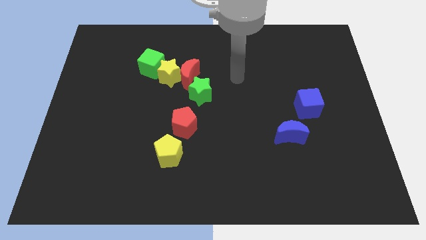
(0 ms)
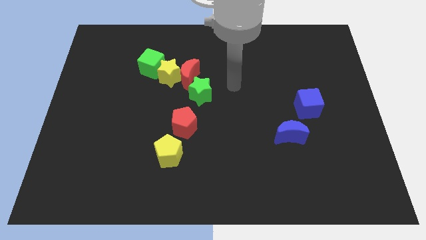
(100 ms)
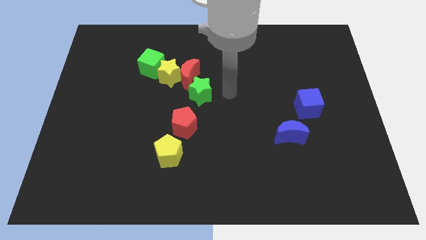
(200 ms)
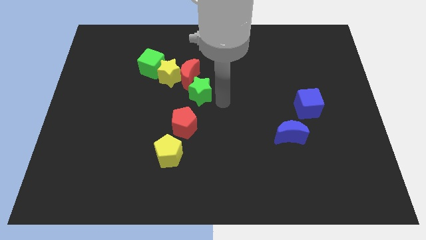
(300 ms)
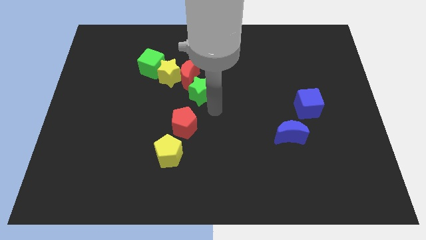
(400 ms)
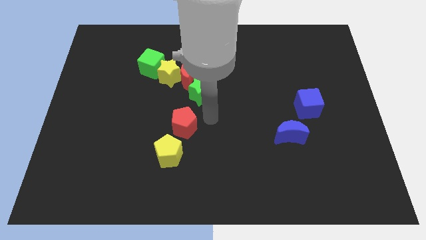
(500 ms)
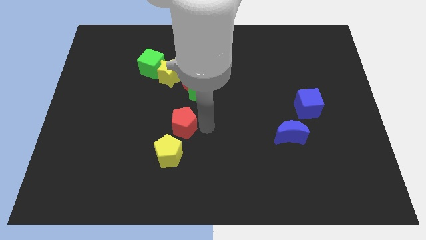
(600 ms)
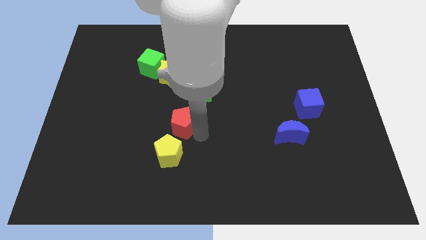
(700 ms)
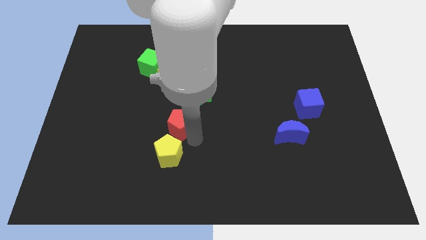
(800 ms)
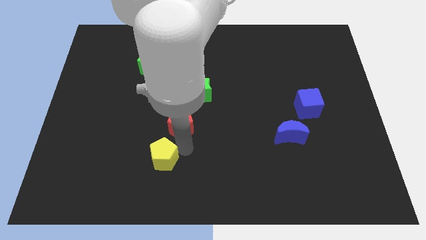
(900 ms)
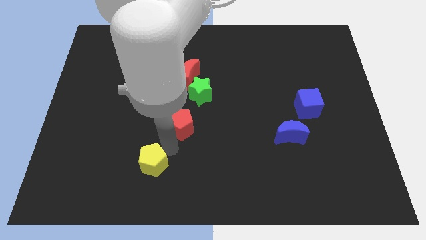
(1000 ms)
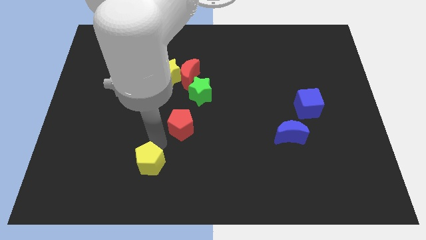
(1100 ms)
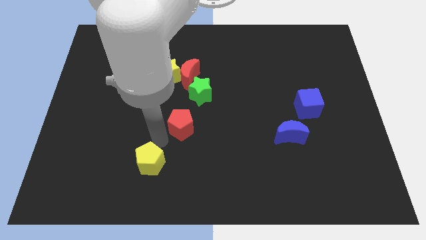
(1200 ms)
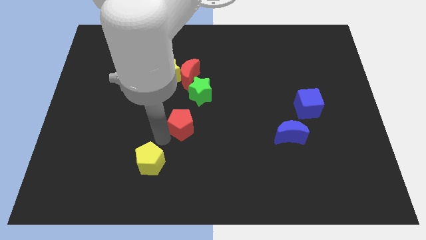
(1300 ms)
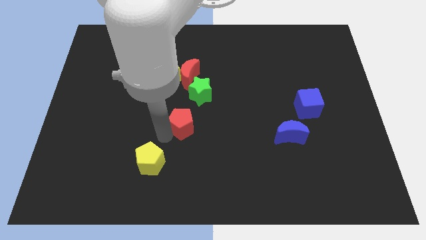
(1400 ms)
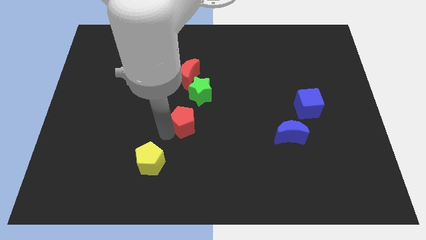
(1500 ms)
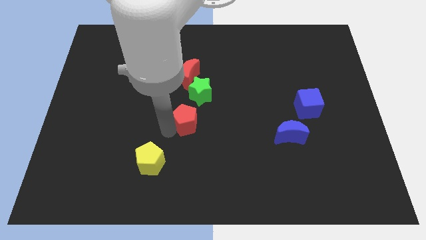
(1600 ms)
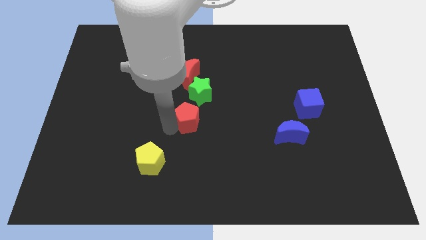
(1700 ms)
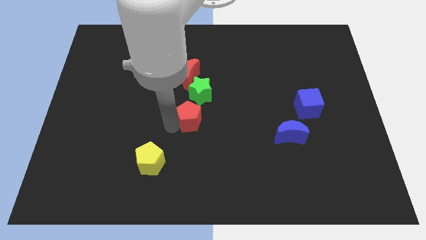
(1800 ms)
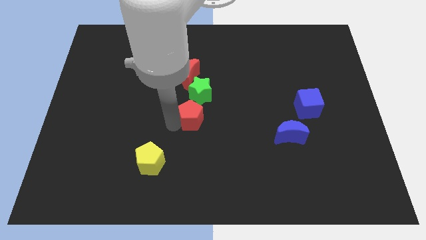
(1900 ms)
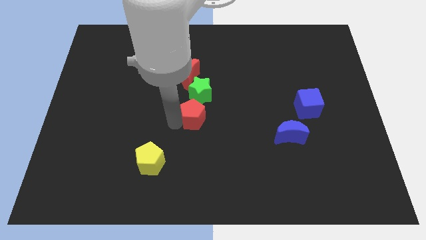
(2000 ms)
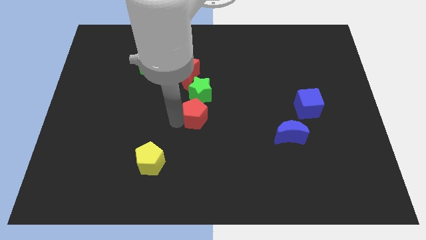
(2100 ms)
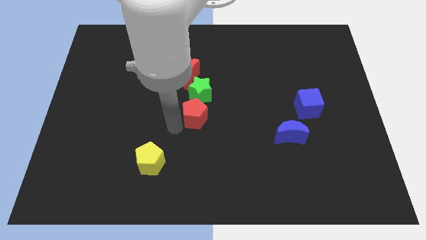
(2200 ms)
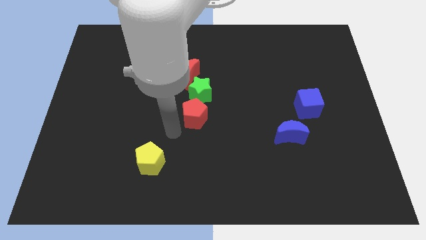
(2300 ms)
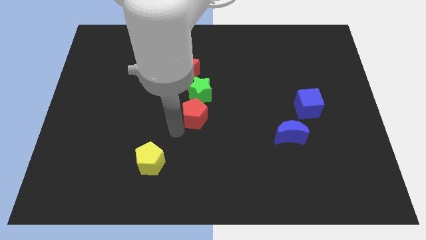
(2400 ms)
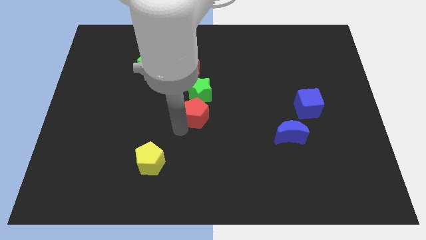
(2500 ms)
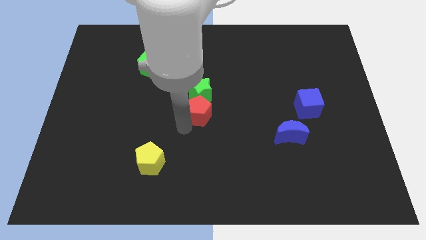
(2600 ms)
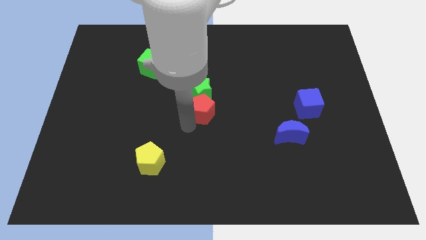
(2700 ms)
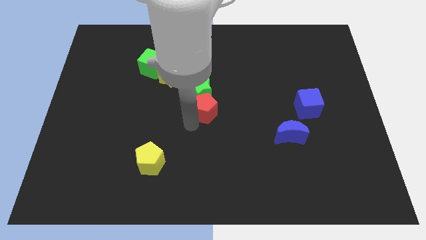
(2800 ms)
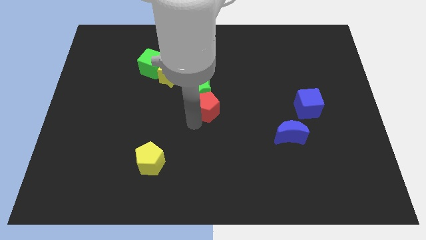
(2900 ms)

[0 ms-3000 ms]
slightly push the red pentagon upwards and to the right diagonally

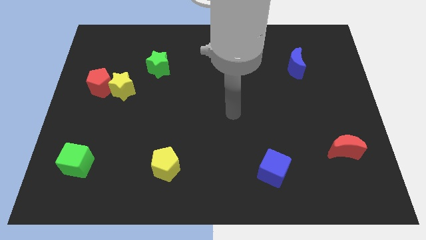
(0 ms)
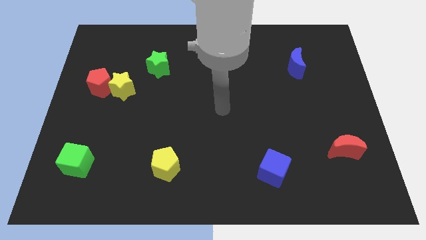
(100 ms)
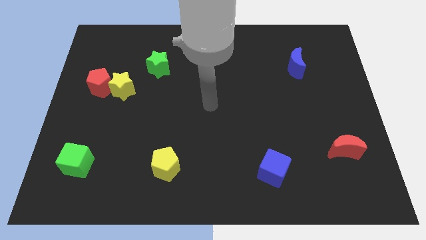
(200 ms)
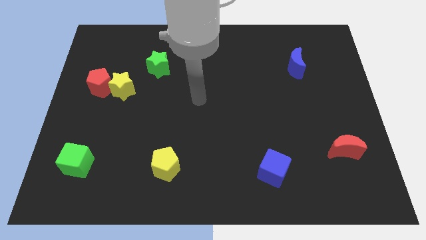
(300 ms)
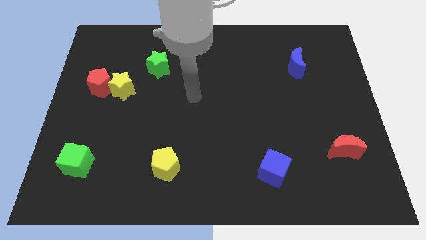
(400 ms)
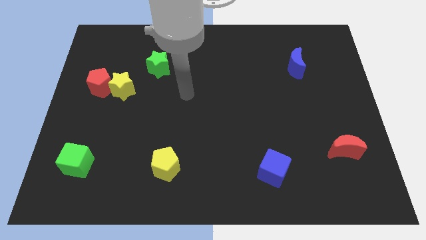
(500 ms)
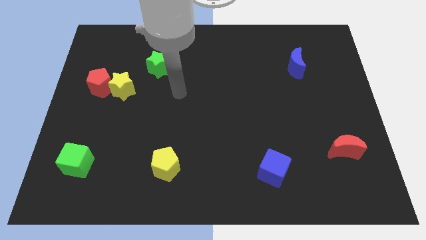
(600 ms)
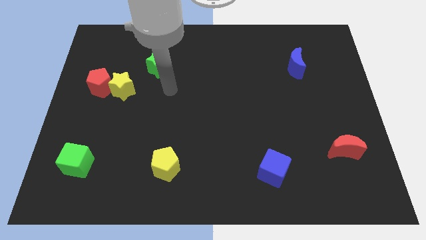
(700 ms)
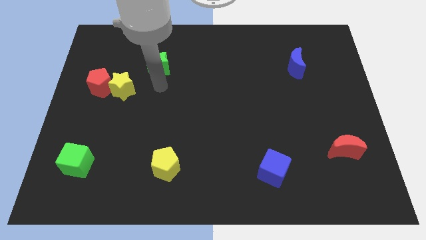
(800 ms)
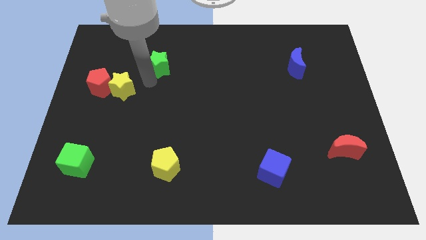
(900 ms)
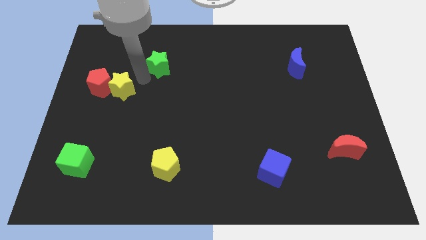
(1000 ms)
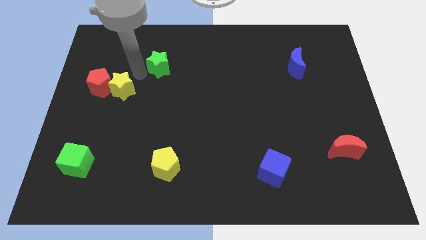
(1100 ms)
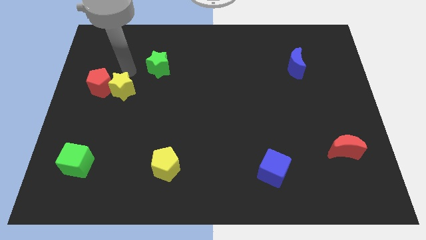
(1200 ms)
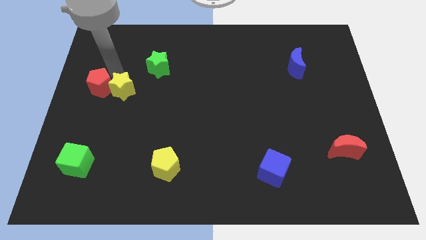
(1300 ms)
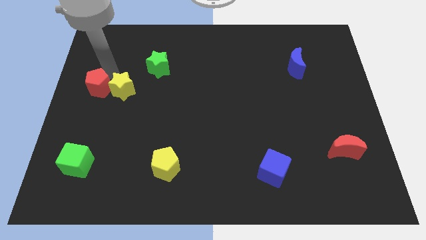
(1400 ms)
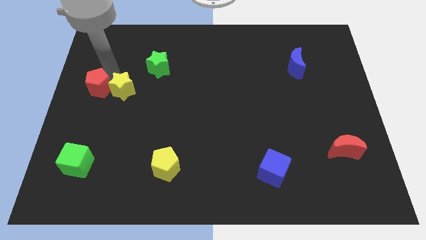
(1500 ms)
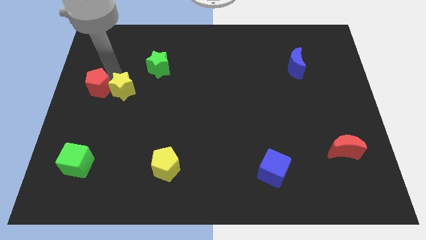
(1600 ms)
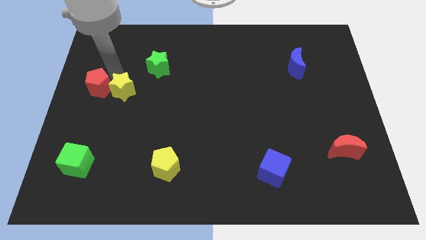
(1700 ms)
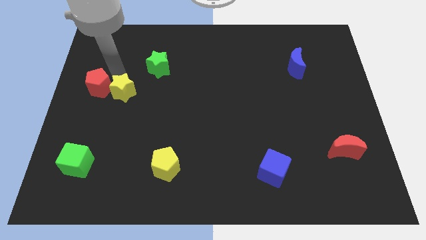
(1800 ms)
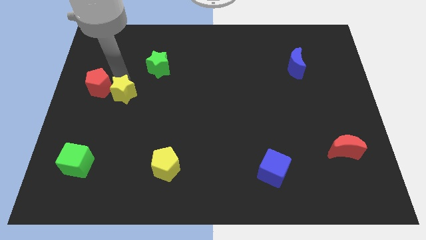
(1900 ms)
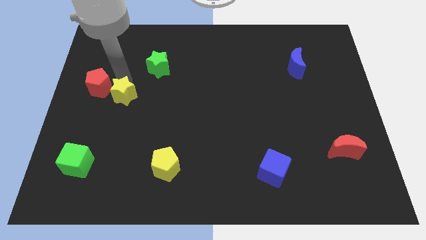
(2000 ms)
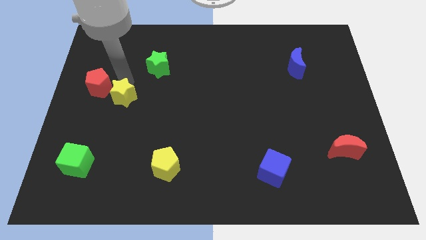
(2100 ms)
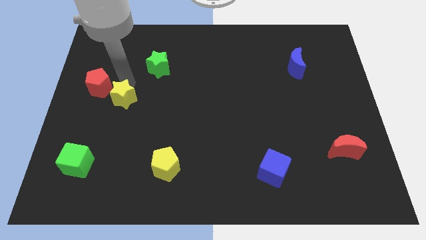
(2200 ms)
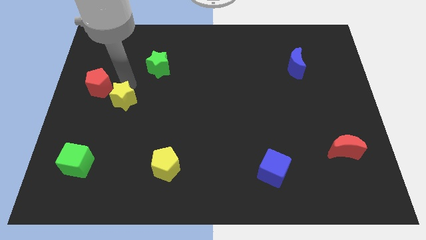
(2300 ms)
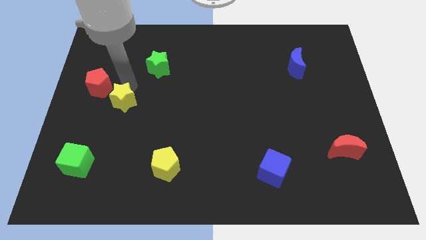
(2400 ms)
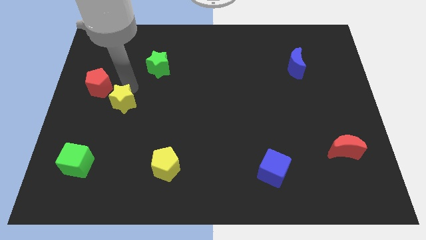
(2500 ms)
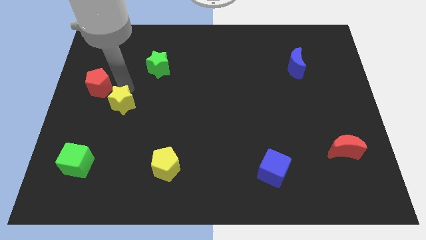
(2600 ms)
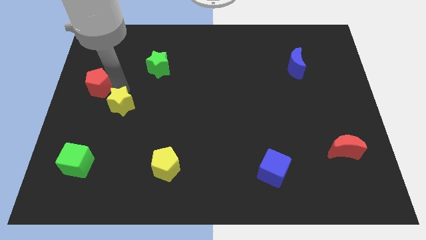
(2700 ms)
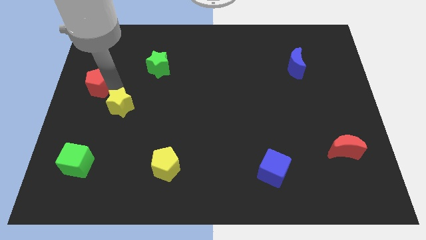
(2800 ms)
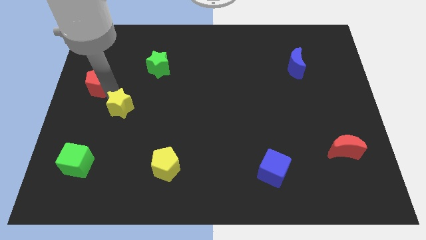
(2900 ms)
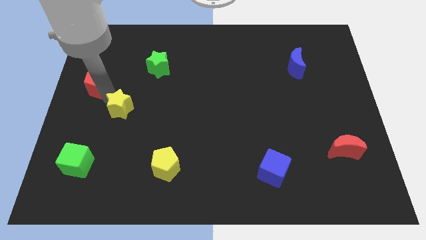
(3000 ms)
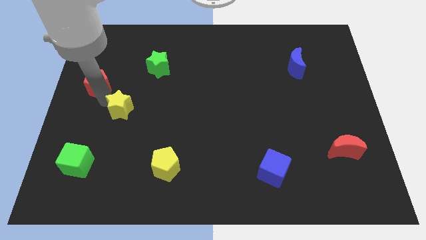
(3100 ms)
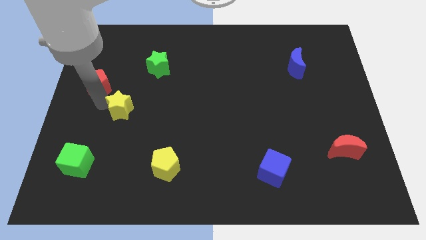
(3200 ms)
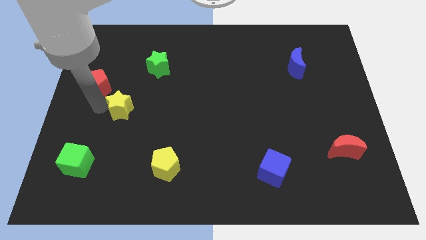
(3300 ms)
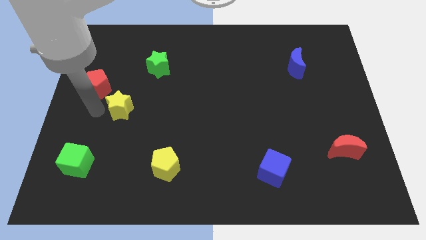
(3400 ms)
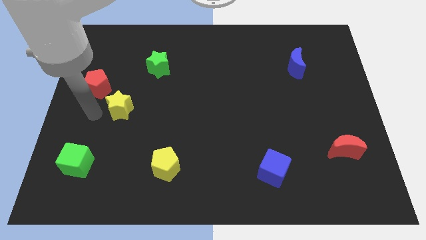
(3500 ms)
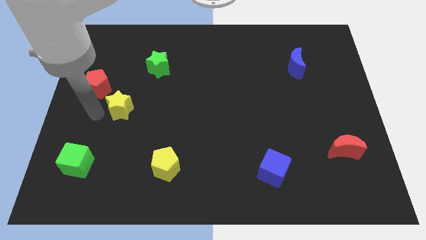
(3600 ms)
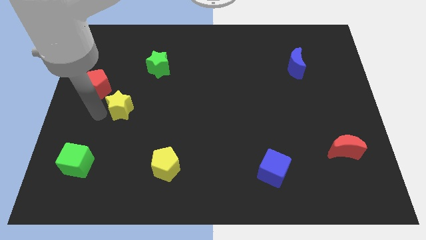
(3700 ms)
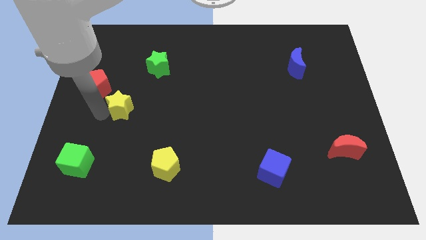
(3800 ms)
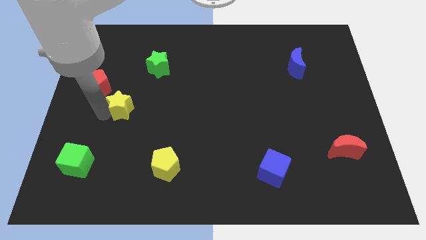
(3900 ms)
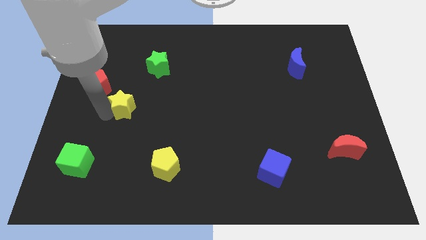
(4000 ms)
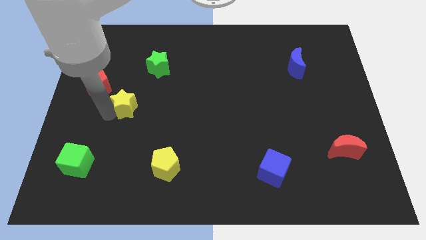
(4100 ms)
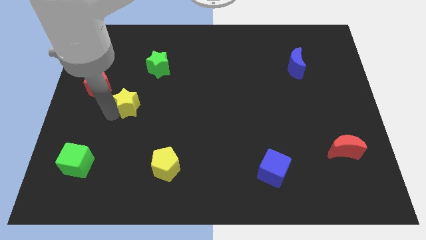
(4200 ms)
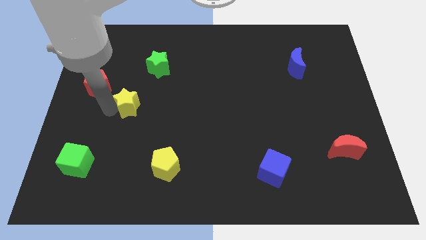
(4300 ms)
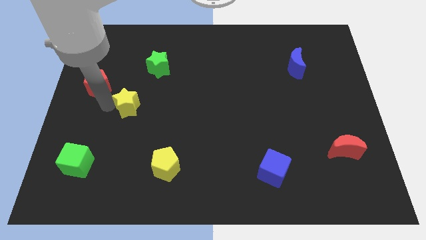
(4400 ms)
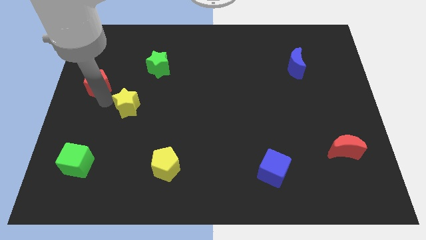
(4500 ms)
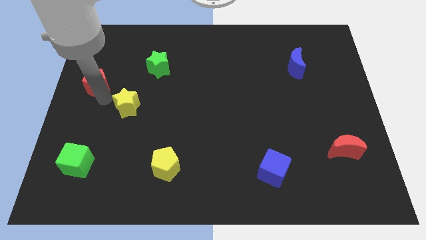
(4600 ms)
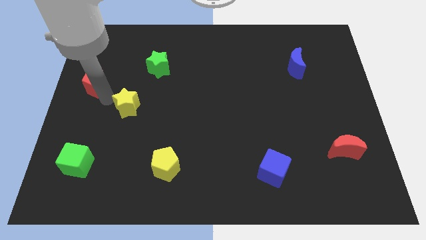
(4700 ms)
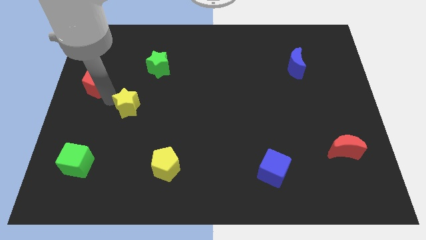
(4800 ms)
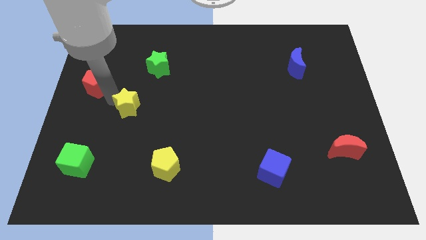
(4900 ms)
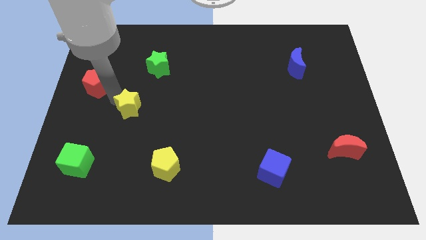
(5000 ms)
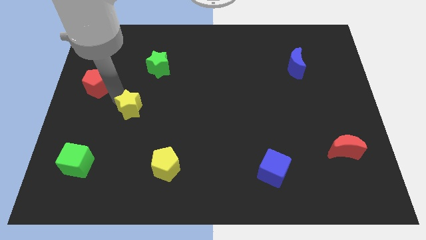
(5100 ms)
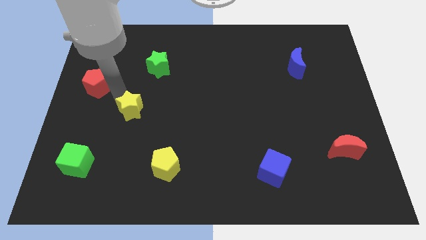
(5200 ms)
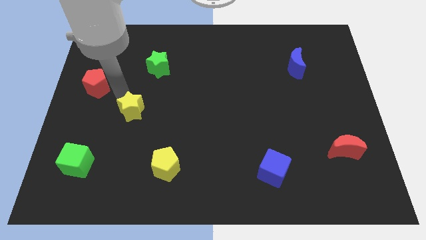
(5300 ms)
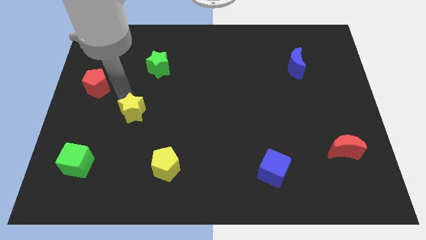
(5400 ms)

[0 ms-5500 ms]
slide the yellow star somewhat downwards and then to the right
